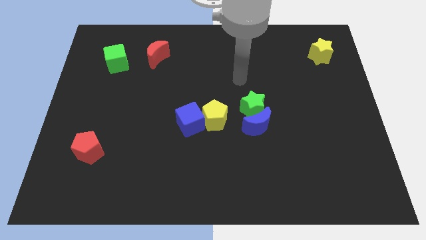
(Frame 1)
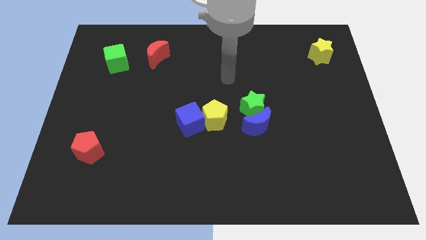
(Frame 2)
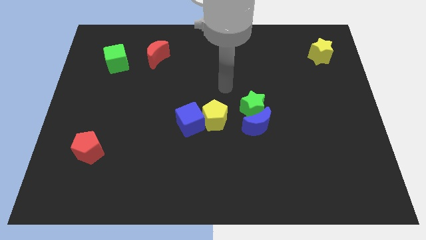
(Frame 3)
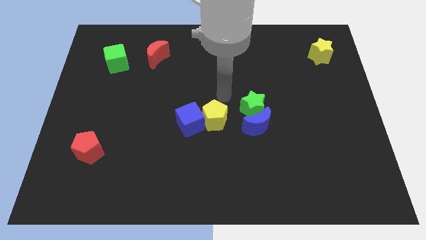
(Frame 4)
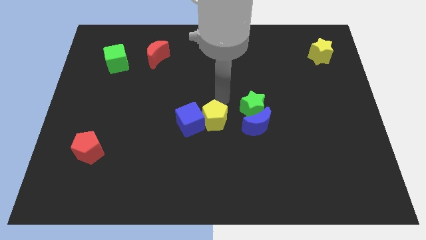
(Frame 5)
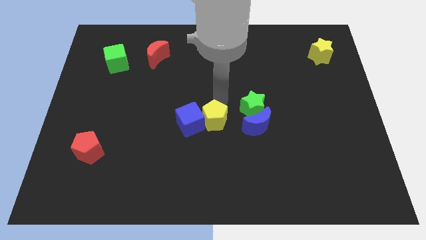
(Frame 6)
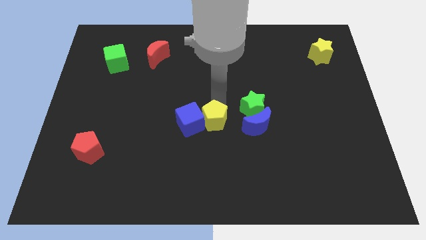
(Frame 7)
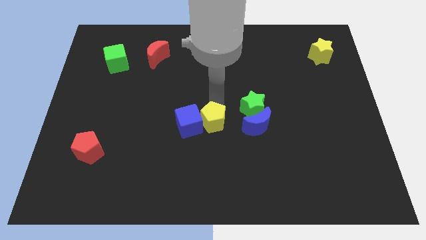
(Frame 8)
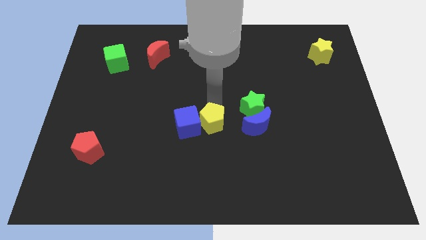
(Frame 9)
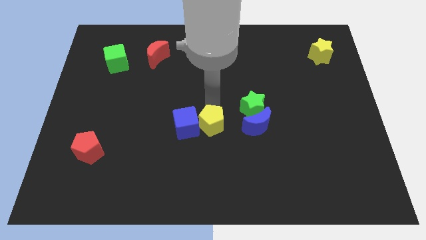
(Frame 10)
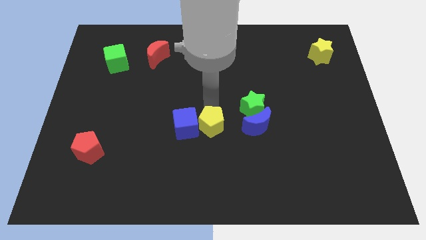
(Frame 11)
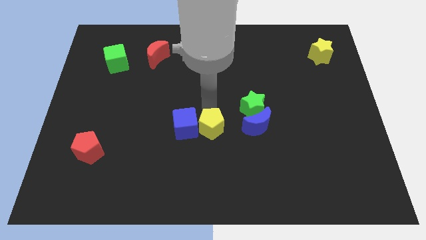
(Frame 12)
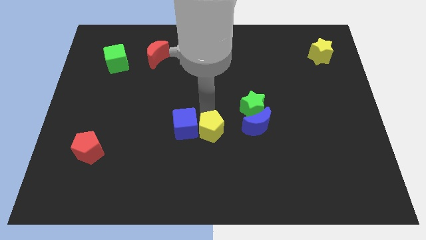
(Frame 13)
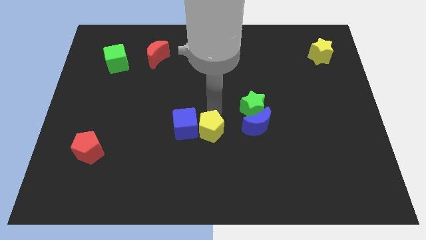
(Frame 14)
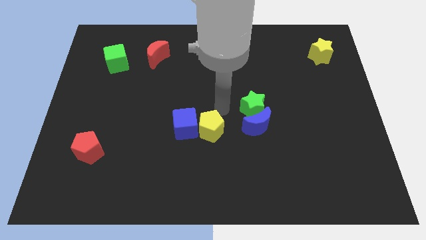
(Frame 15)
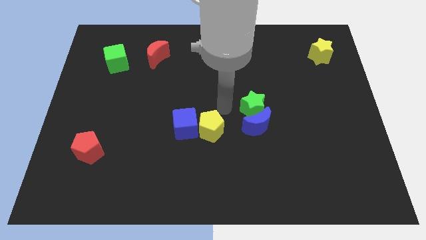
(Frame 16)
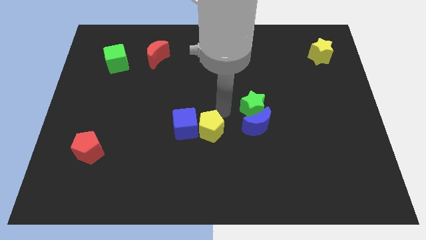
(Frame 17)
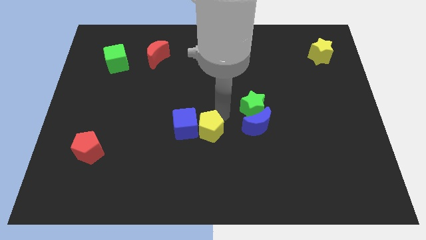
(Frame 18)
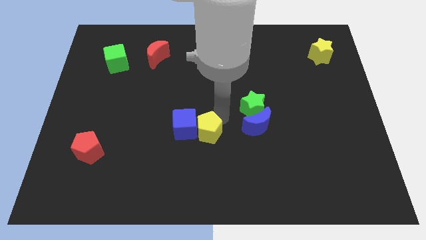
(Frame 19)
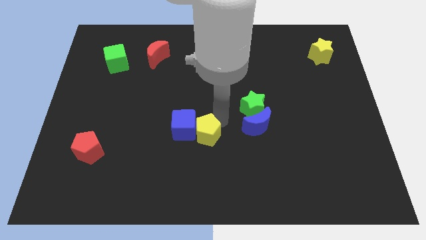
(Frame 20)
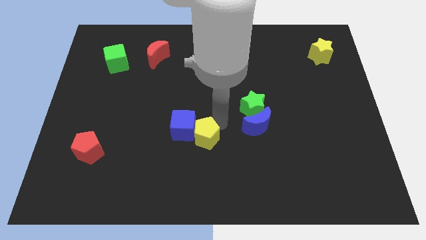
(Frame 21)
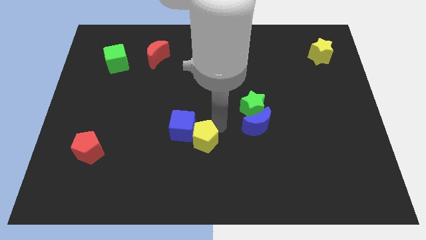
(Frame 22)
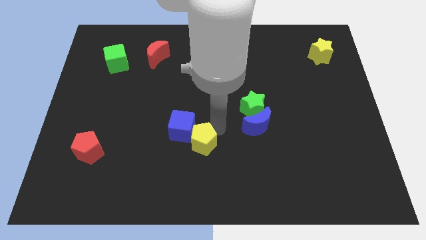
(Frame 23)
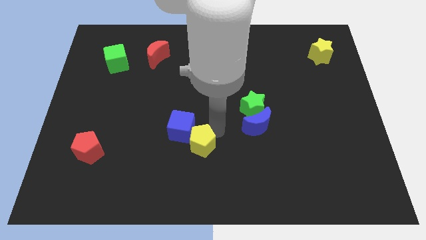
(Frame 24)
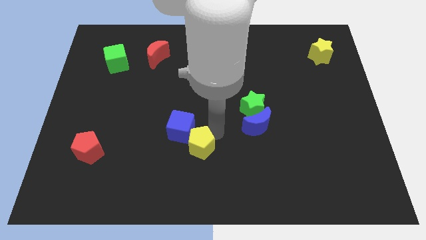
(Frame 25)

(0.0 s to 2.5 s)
slightly move the yellow pentagon downwards and to the left

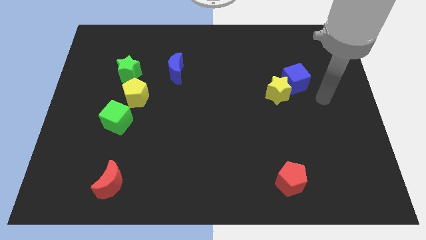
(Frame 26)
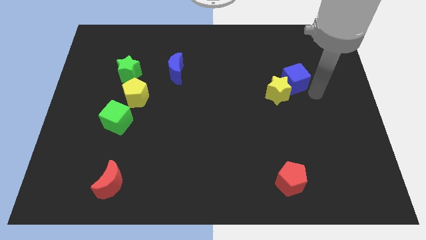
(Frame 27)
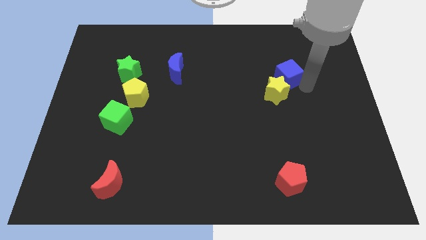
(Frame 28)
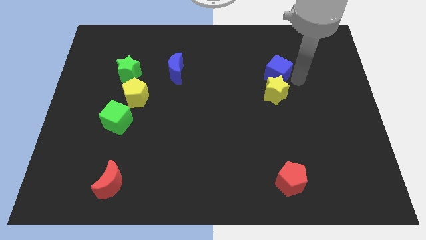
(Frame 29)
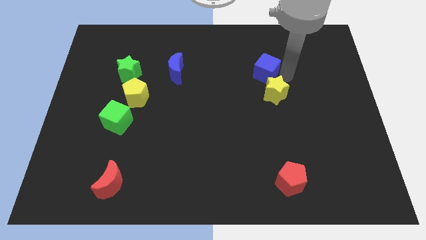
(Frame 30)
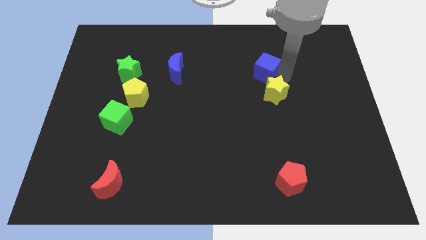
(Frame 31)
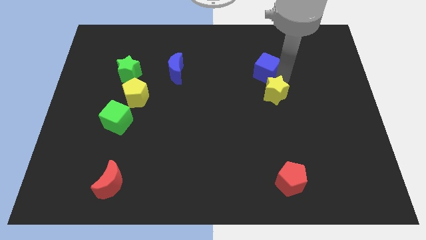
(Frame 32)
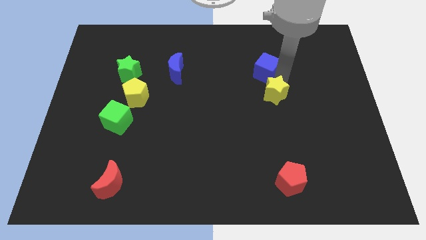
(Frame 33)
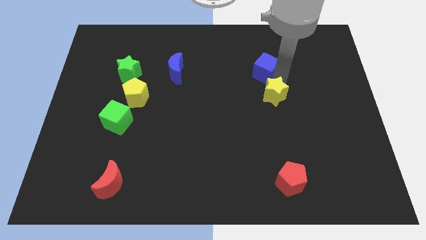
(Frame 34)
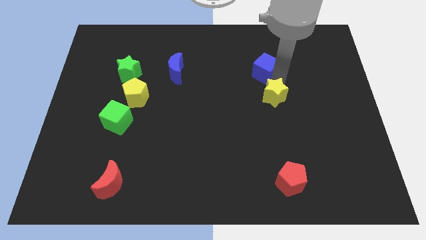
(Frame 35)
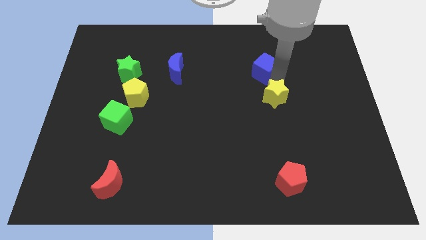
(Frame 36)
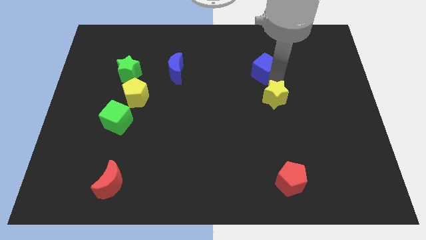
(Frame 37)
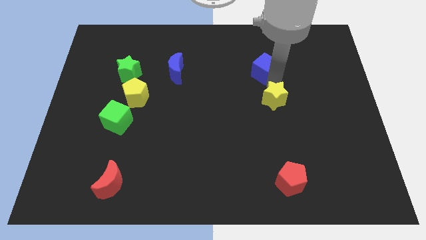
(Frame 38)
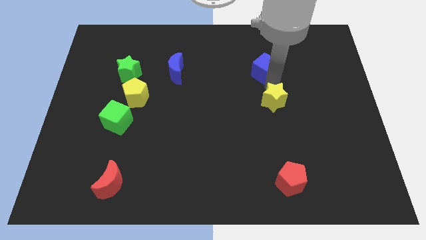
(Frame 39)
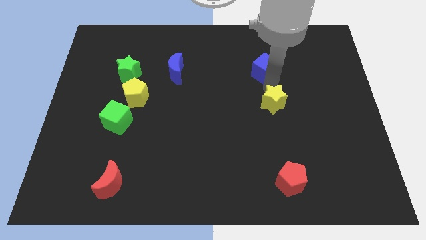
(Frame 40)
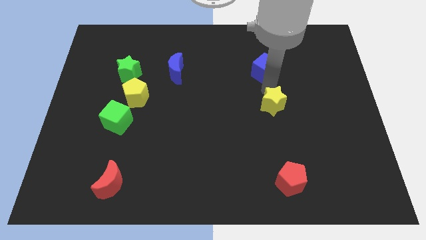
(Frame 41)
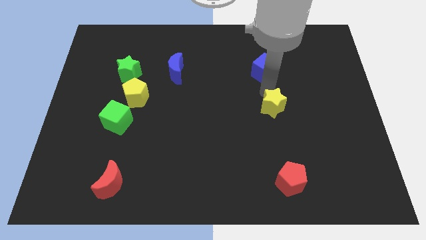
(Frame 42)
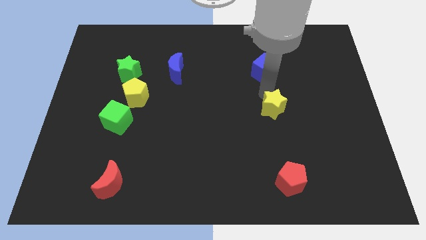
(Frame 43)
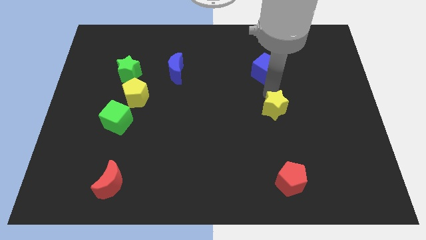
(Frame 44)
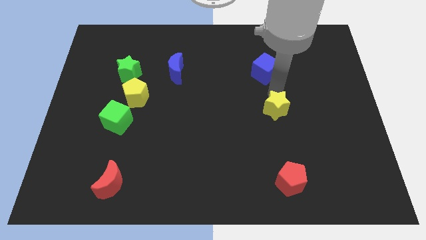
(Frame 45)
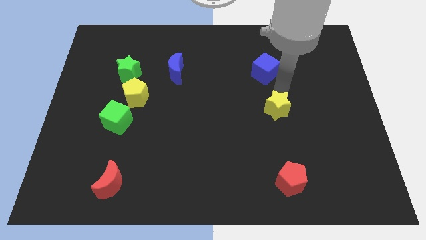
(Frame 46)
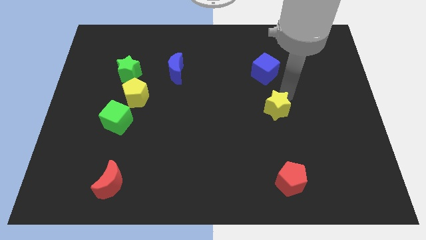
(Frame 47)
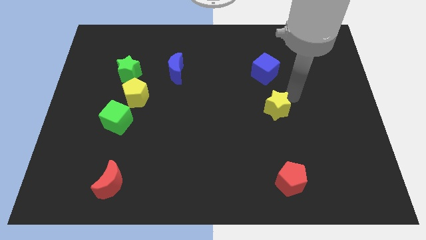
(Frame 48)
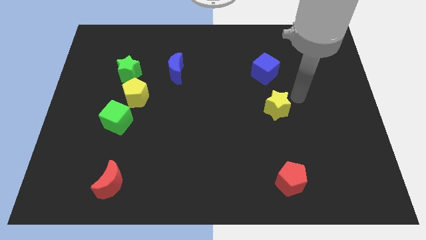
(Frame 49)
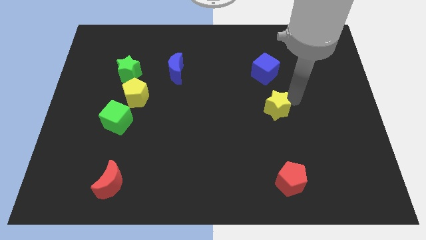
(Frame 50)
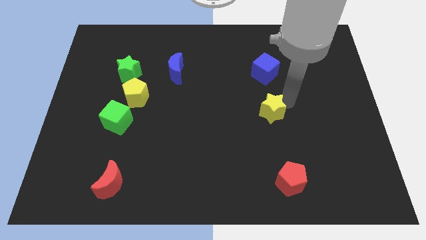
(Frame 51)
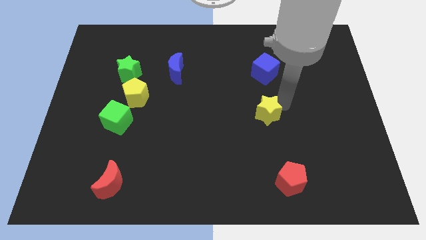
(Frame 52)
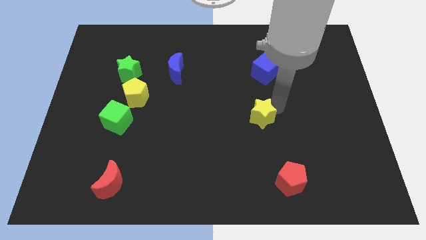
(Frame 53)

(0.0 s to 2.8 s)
slide the yellow star diagonally downwards and to the left somewhat

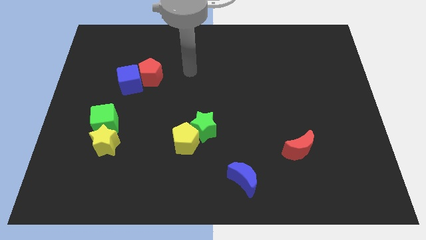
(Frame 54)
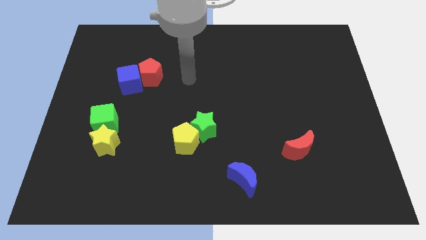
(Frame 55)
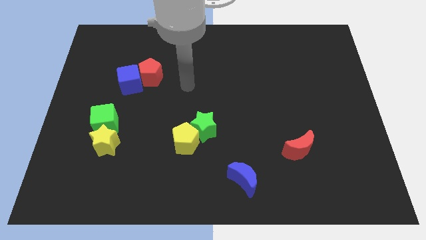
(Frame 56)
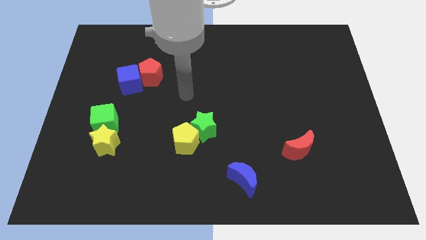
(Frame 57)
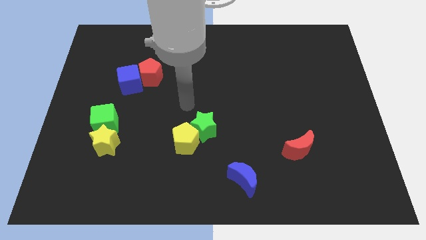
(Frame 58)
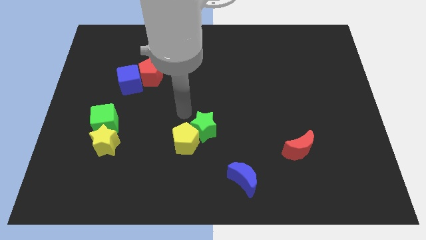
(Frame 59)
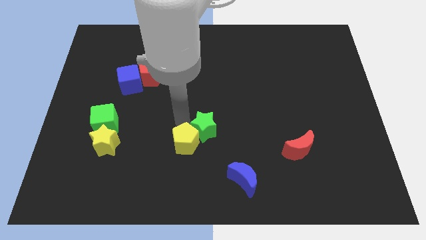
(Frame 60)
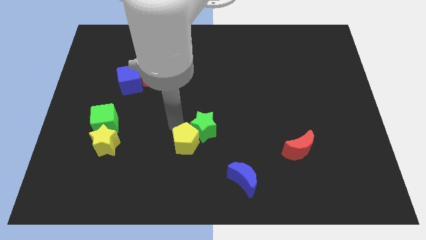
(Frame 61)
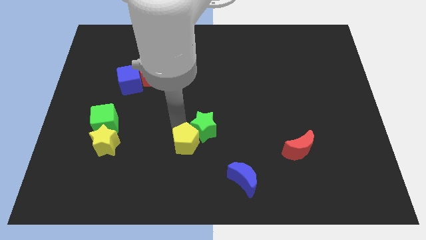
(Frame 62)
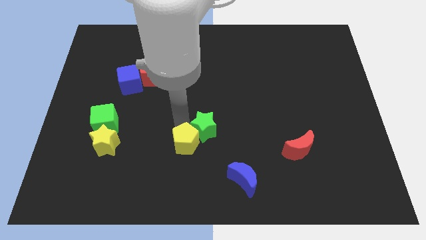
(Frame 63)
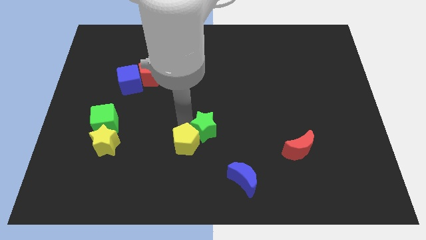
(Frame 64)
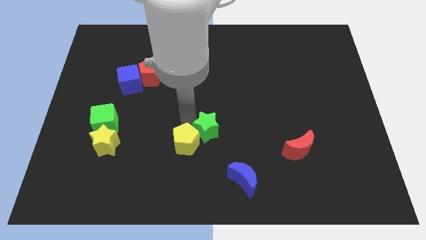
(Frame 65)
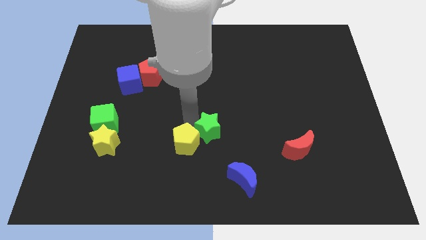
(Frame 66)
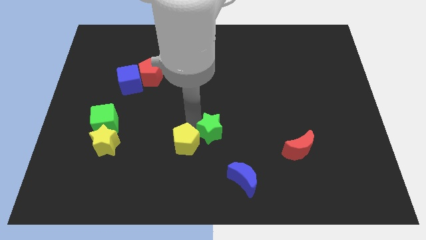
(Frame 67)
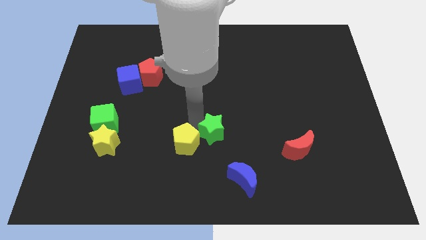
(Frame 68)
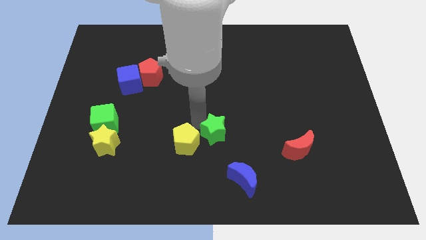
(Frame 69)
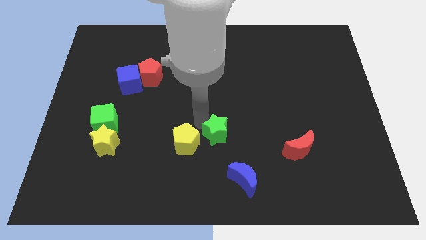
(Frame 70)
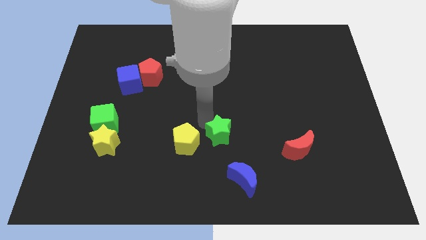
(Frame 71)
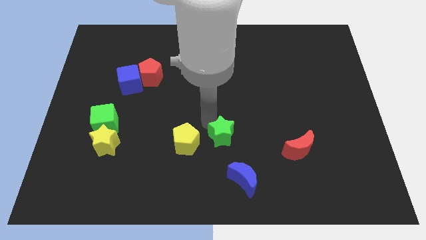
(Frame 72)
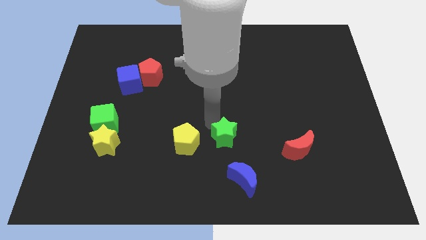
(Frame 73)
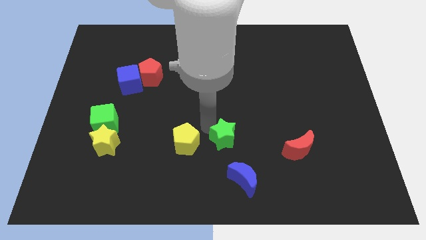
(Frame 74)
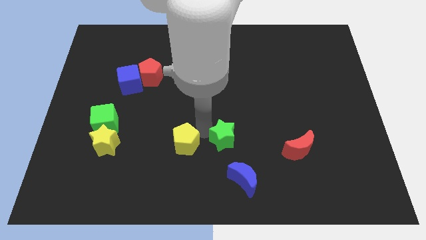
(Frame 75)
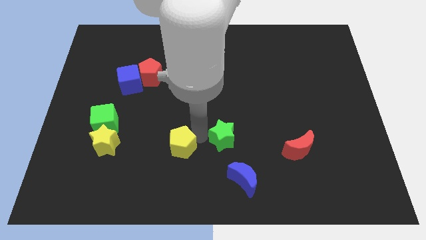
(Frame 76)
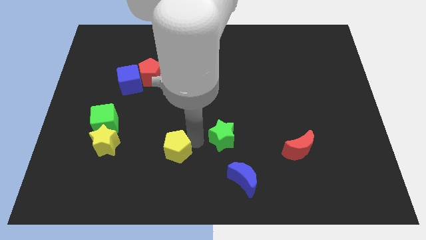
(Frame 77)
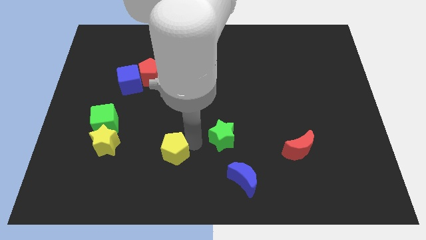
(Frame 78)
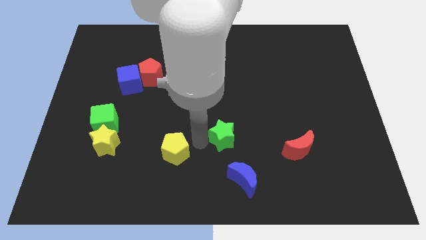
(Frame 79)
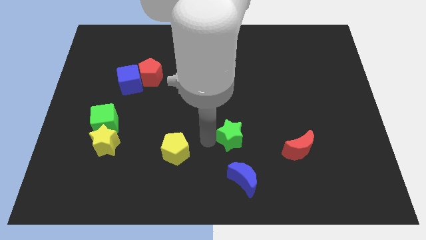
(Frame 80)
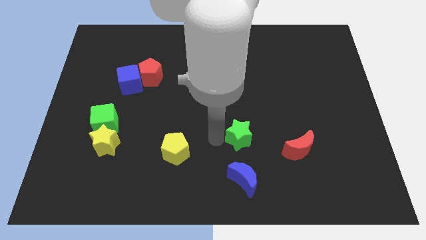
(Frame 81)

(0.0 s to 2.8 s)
move the green star a little bit right
